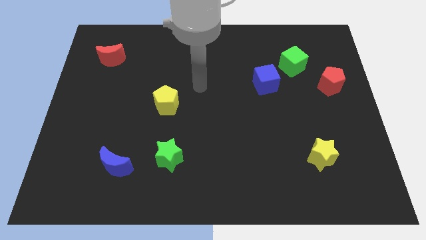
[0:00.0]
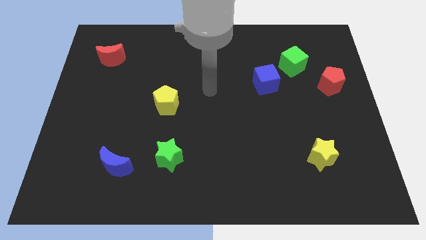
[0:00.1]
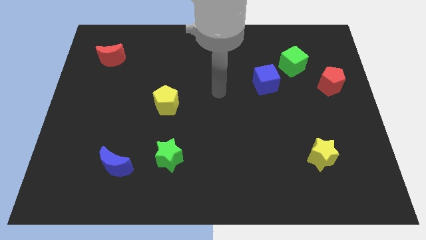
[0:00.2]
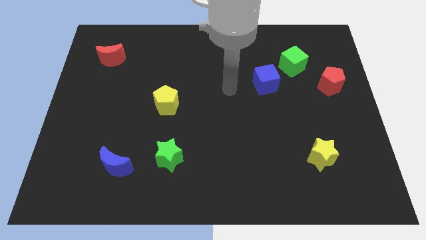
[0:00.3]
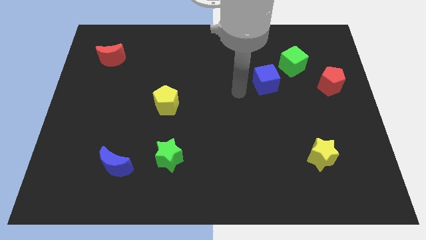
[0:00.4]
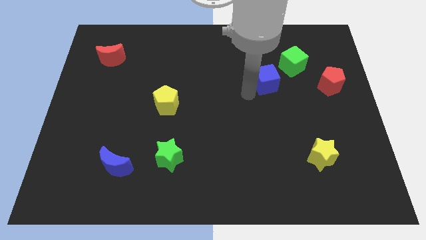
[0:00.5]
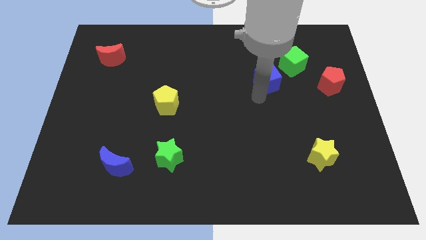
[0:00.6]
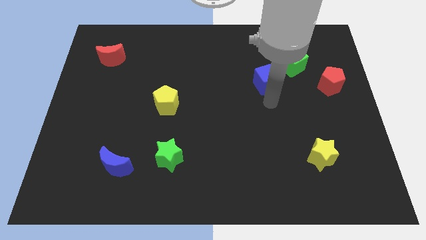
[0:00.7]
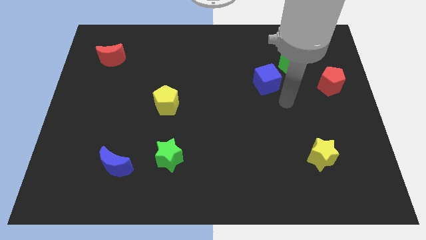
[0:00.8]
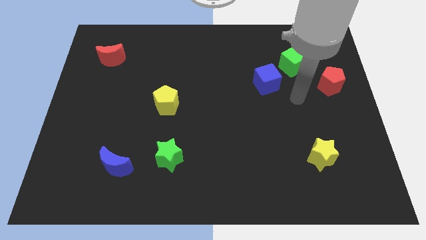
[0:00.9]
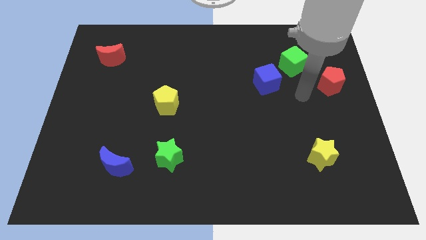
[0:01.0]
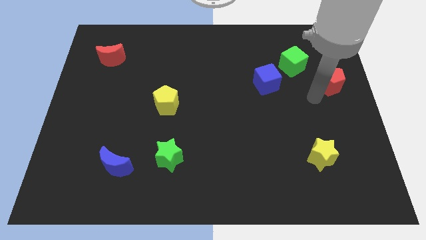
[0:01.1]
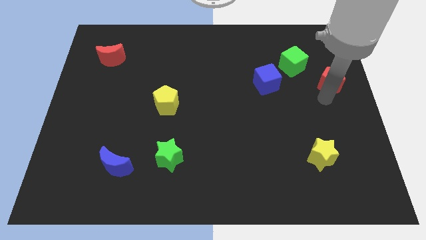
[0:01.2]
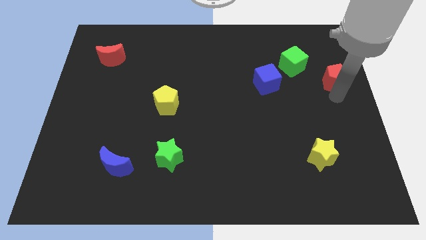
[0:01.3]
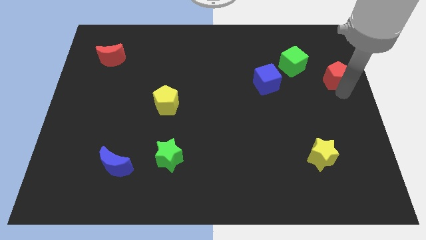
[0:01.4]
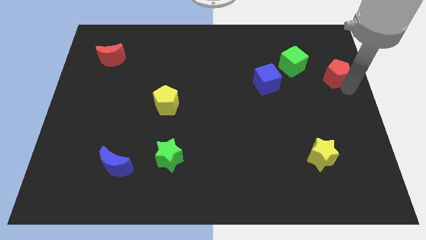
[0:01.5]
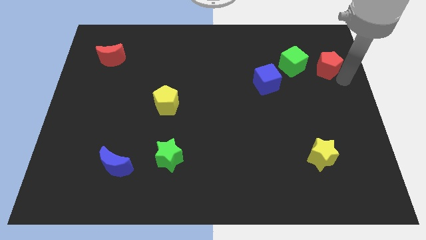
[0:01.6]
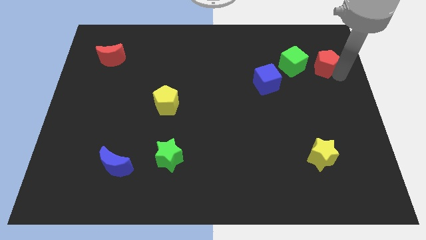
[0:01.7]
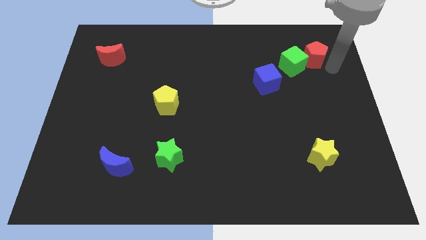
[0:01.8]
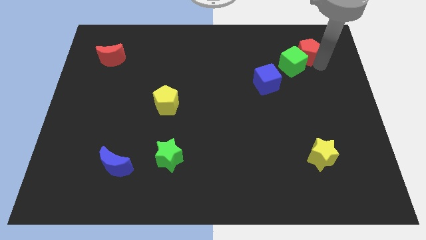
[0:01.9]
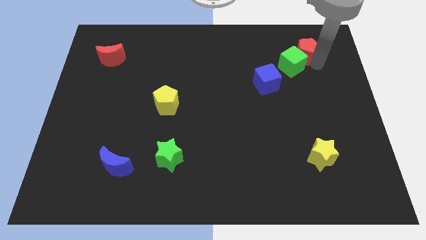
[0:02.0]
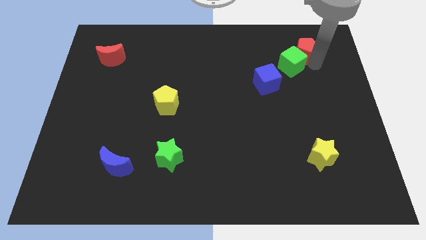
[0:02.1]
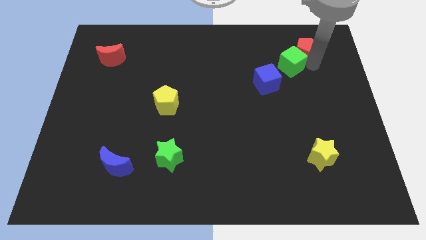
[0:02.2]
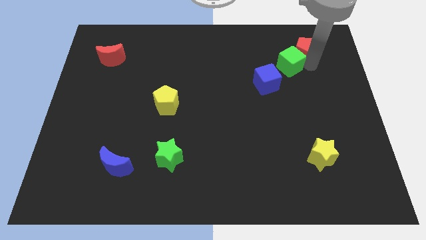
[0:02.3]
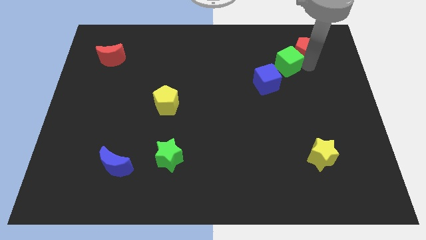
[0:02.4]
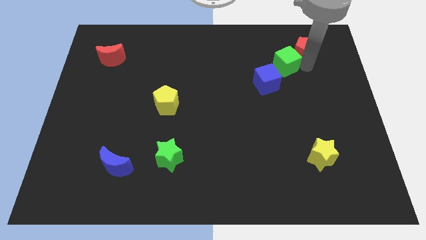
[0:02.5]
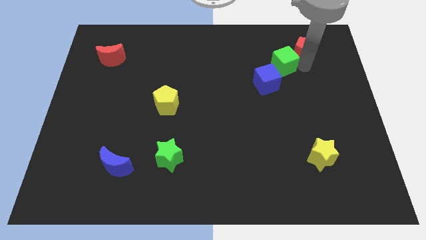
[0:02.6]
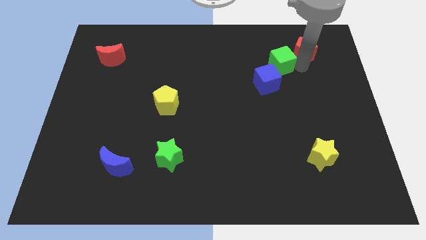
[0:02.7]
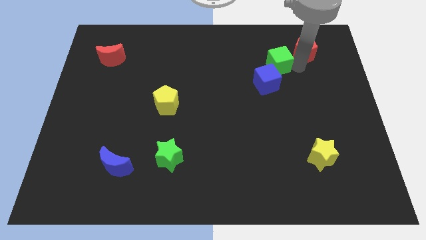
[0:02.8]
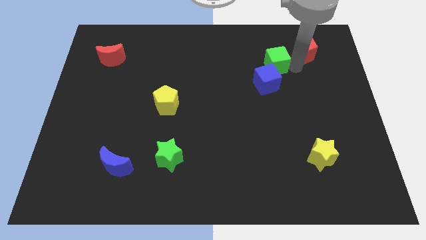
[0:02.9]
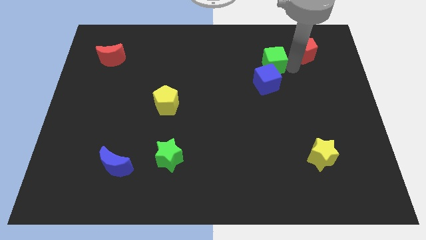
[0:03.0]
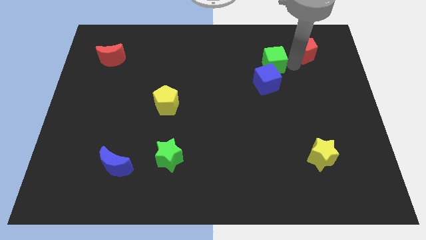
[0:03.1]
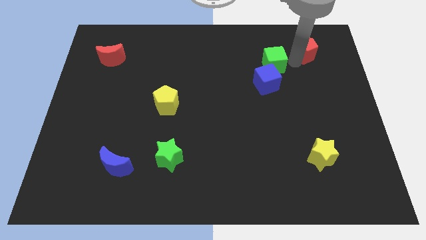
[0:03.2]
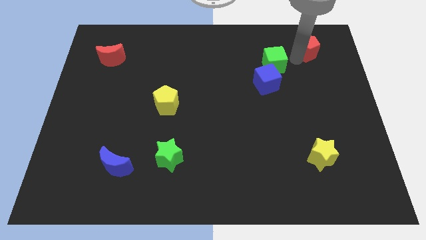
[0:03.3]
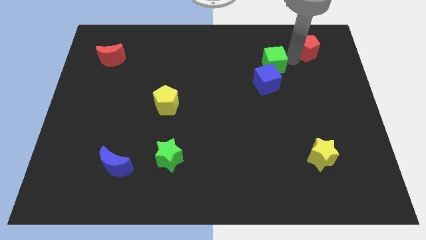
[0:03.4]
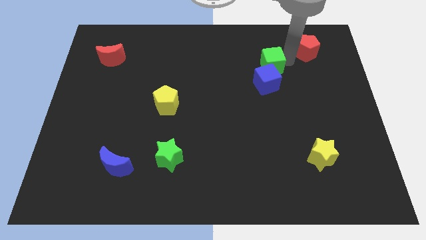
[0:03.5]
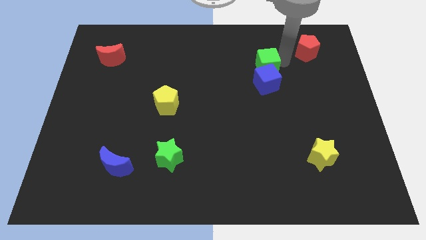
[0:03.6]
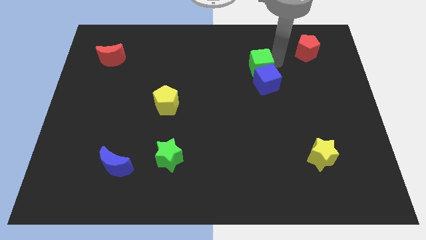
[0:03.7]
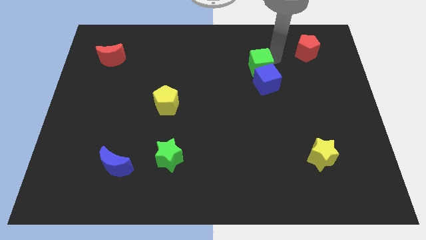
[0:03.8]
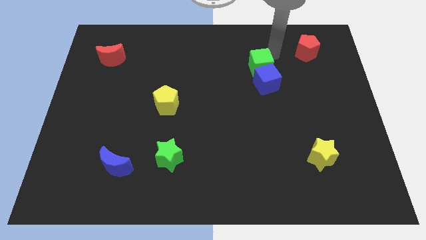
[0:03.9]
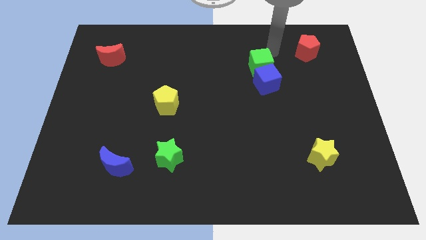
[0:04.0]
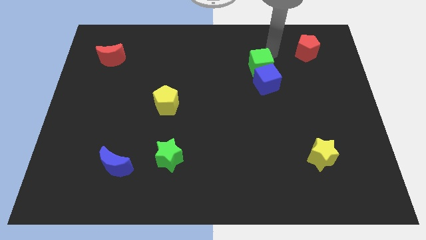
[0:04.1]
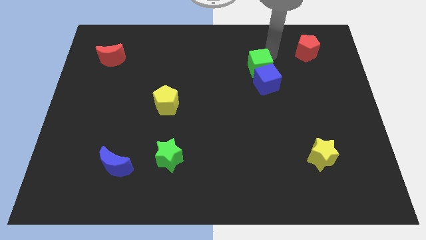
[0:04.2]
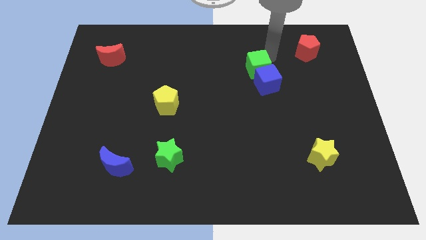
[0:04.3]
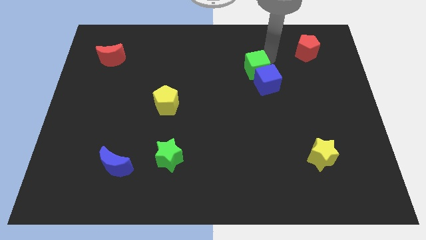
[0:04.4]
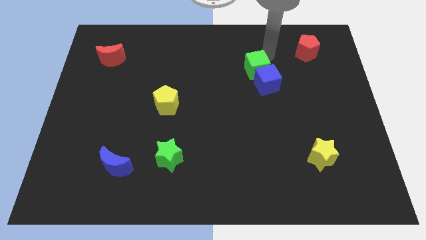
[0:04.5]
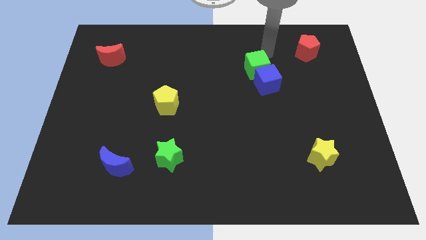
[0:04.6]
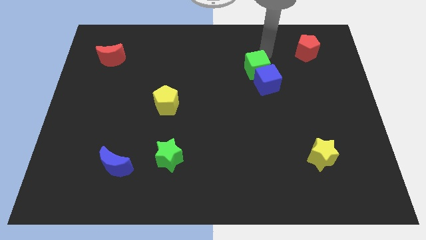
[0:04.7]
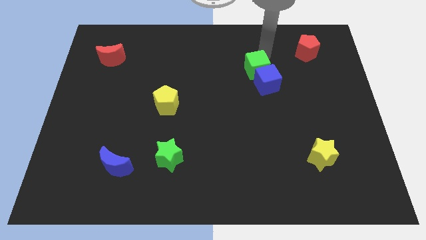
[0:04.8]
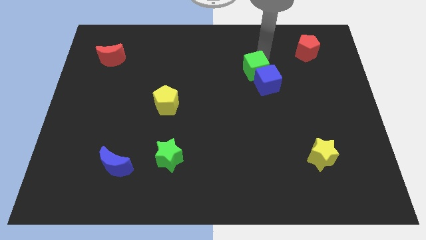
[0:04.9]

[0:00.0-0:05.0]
slide the green cube somewhat down and to the left

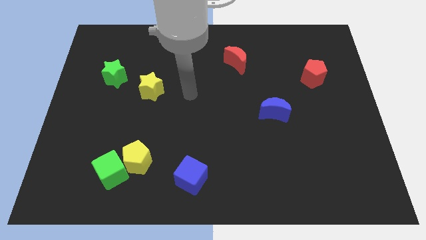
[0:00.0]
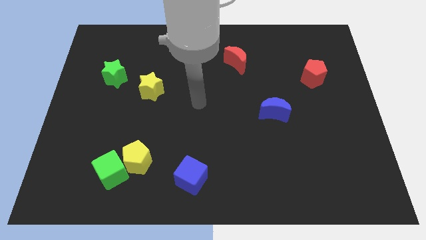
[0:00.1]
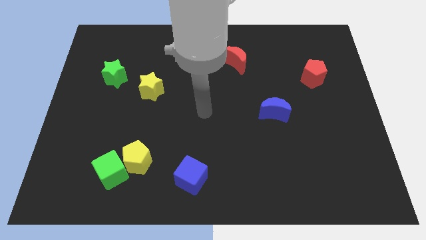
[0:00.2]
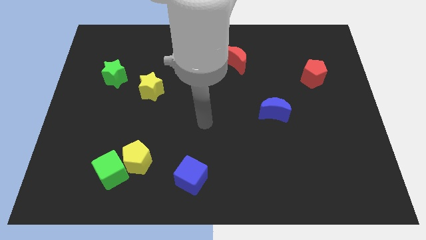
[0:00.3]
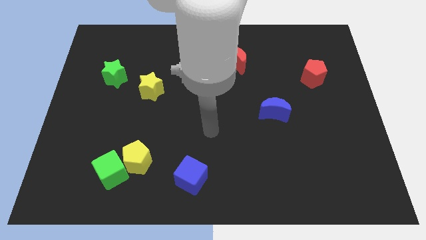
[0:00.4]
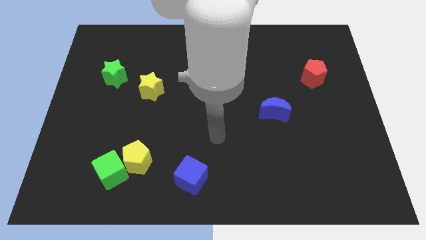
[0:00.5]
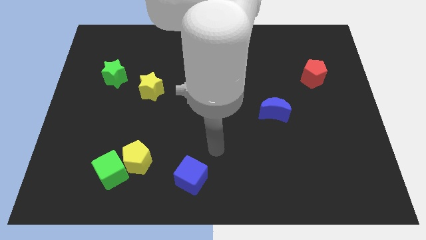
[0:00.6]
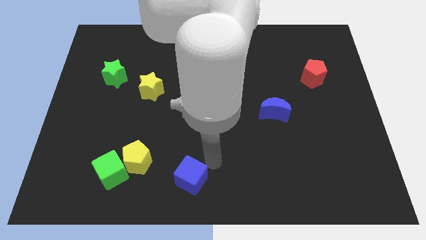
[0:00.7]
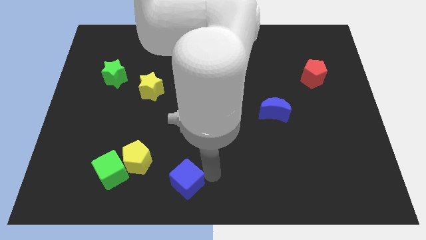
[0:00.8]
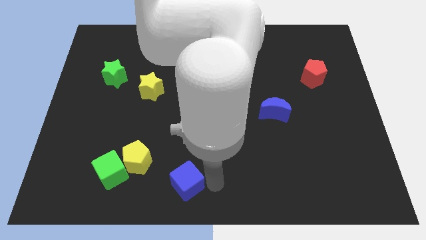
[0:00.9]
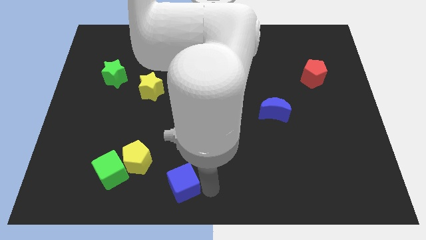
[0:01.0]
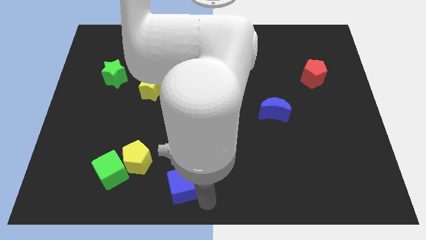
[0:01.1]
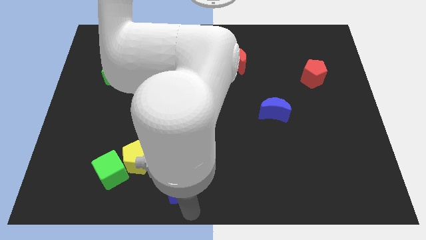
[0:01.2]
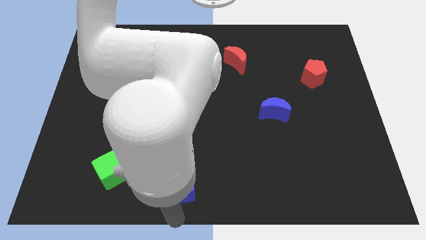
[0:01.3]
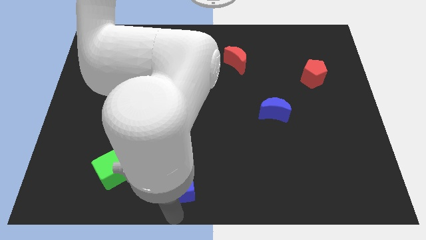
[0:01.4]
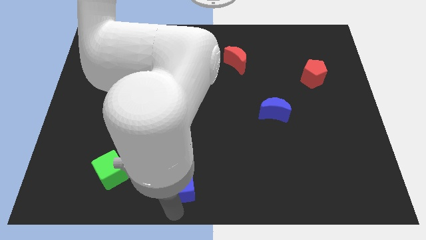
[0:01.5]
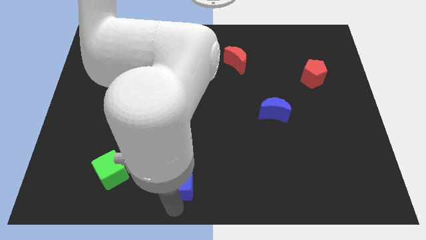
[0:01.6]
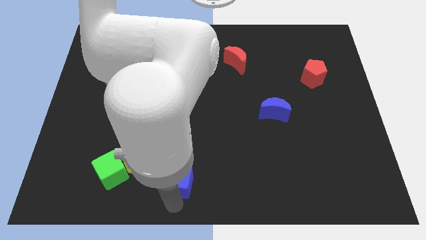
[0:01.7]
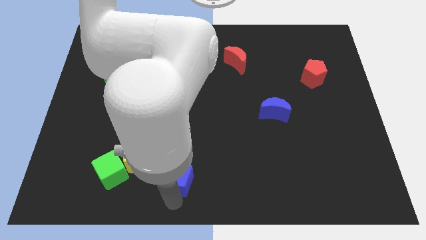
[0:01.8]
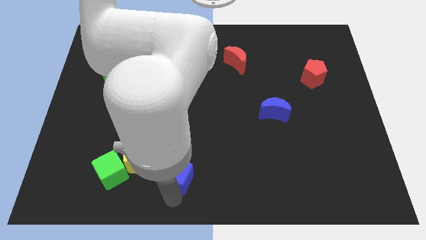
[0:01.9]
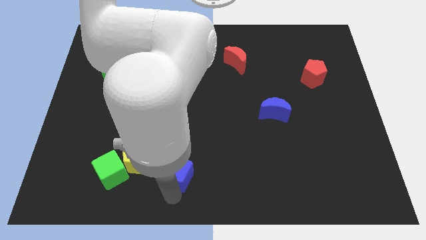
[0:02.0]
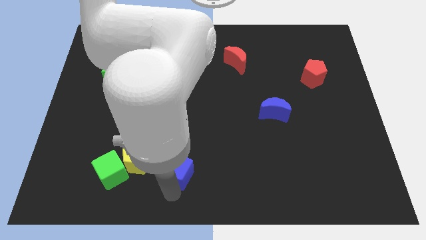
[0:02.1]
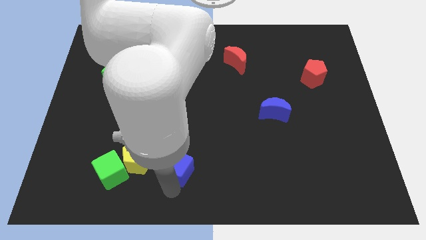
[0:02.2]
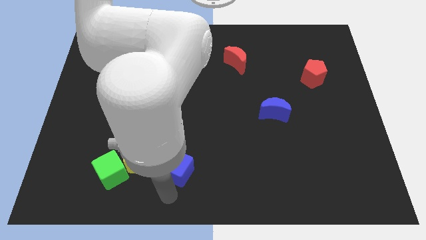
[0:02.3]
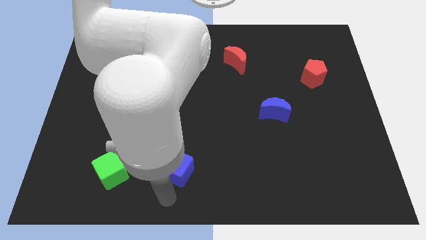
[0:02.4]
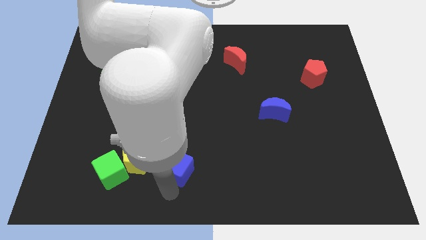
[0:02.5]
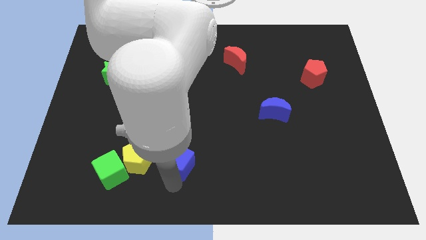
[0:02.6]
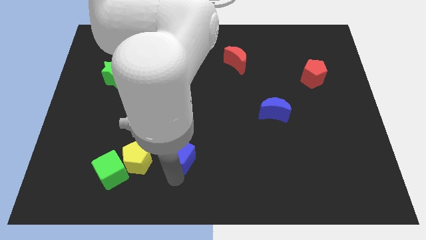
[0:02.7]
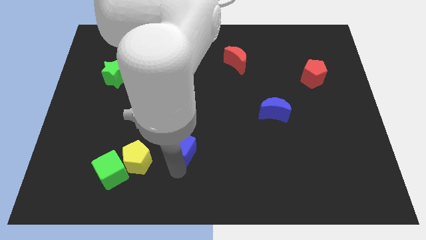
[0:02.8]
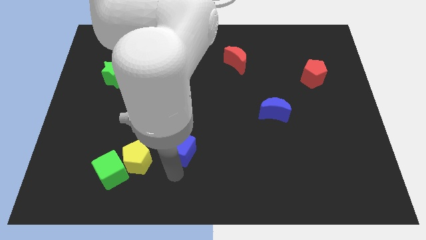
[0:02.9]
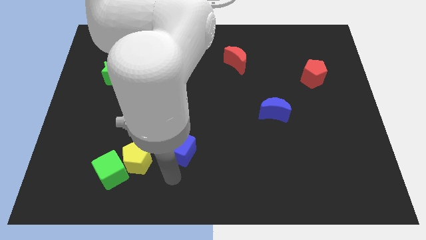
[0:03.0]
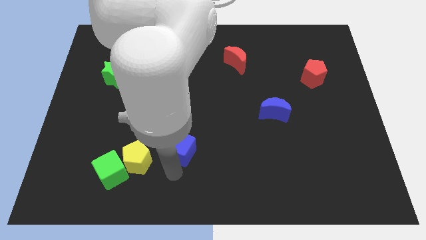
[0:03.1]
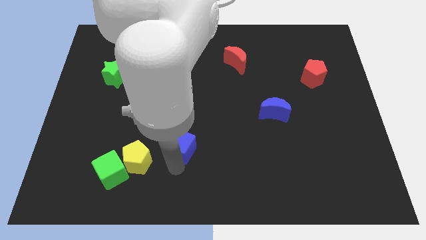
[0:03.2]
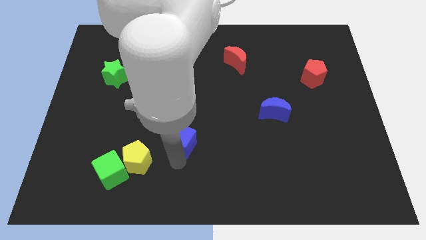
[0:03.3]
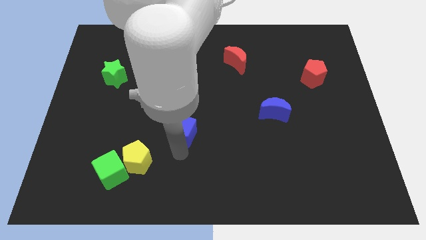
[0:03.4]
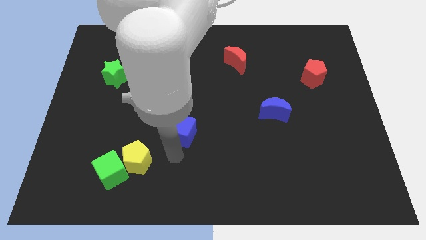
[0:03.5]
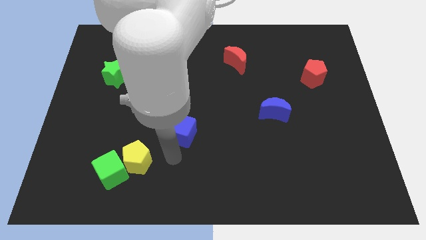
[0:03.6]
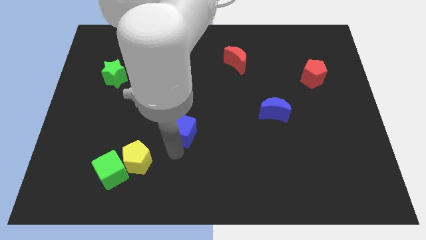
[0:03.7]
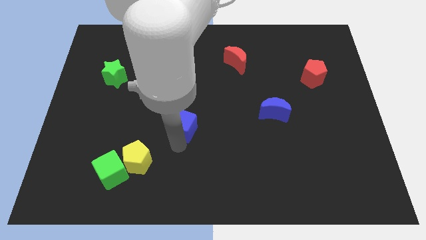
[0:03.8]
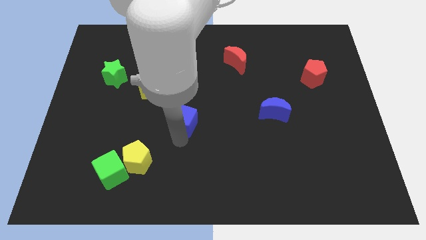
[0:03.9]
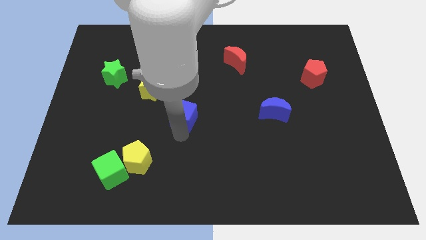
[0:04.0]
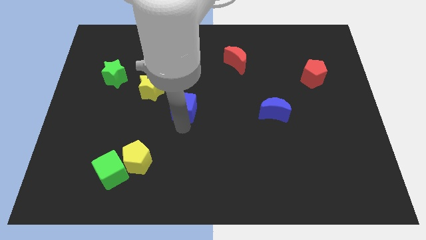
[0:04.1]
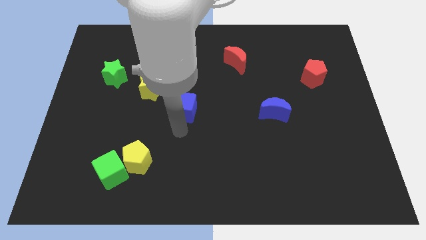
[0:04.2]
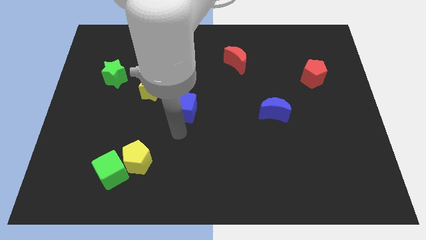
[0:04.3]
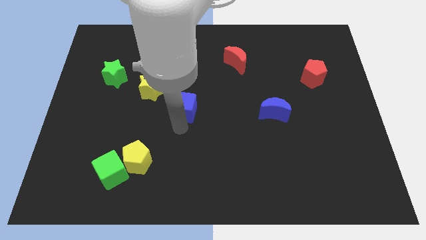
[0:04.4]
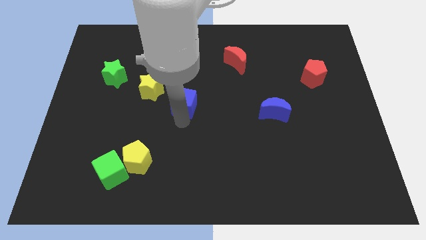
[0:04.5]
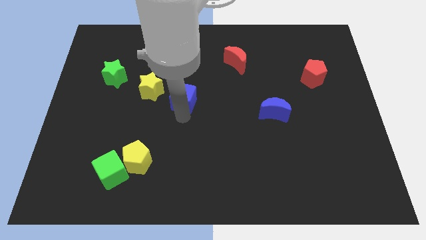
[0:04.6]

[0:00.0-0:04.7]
push the blue cube upwards
